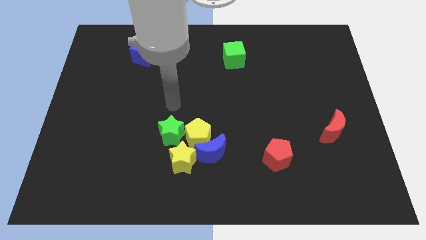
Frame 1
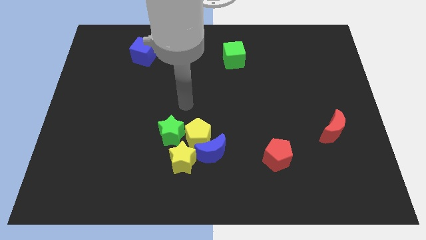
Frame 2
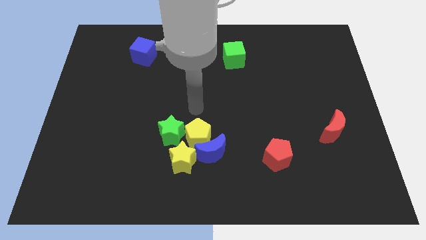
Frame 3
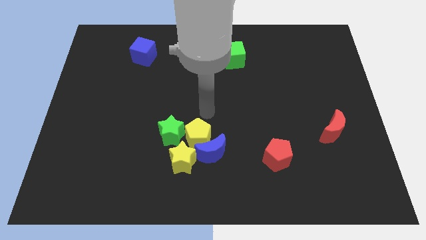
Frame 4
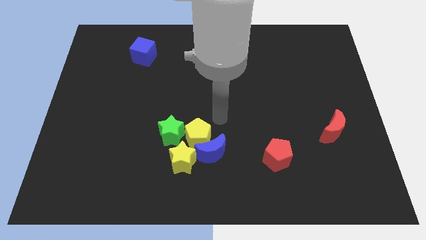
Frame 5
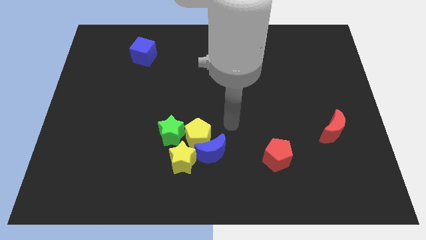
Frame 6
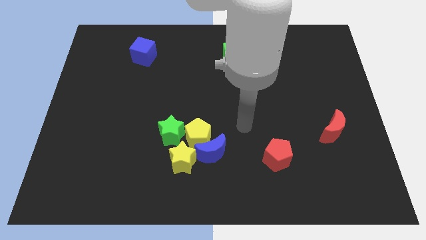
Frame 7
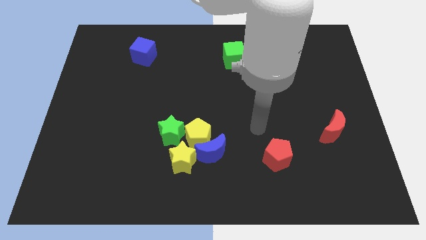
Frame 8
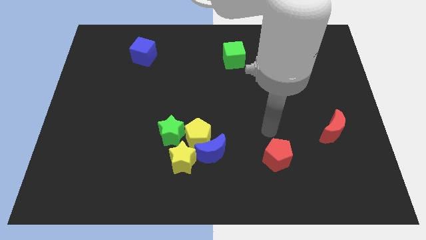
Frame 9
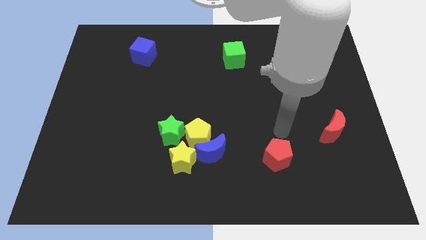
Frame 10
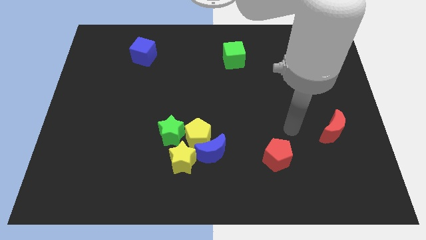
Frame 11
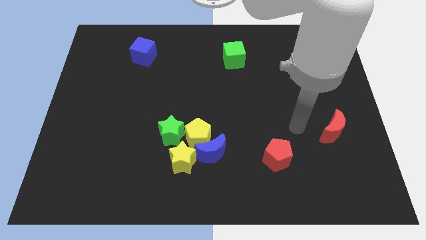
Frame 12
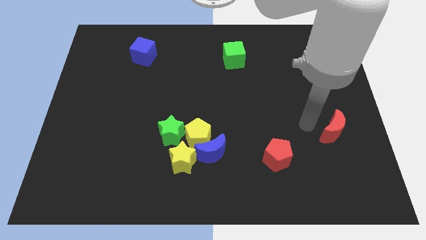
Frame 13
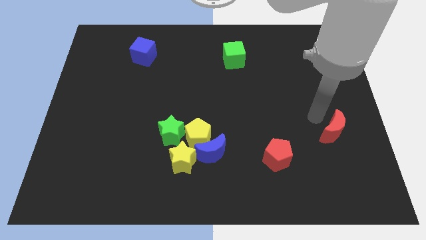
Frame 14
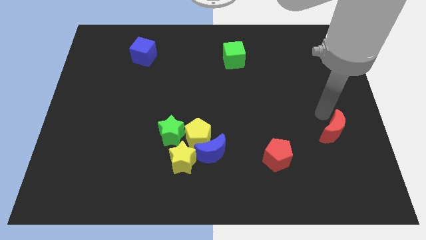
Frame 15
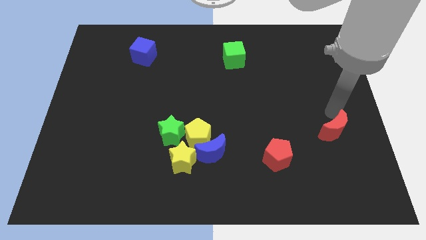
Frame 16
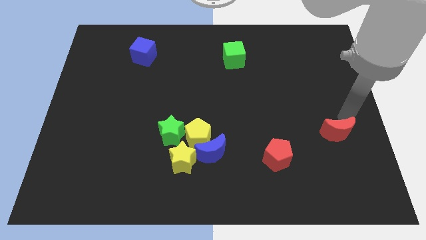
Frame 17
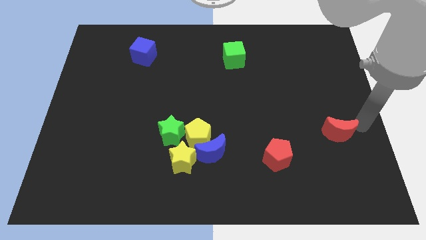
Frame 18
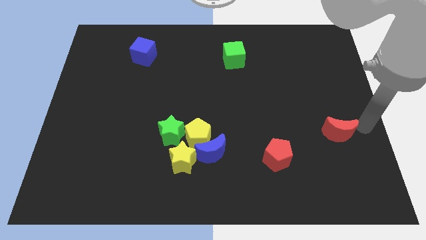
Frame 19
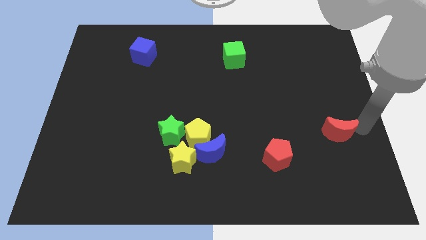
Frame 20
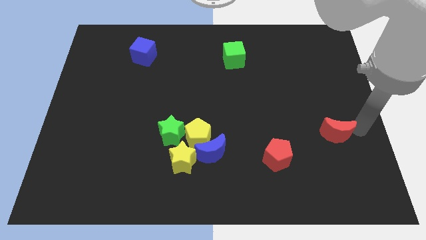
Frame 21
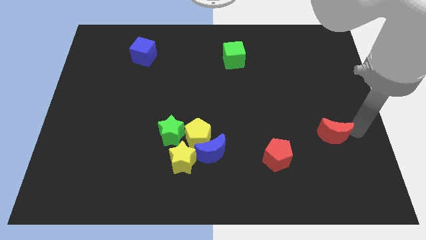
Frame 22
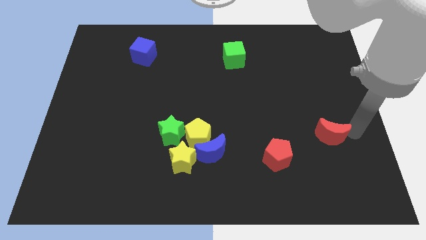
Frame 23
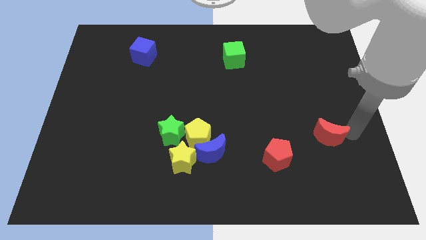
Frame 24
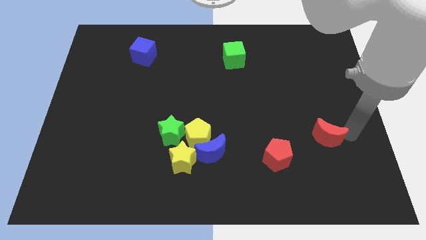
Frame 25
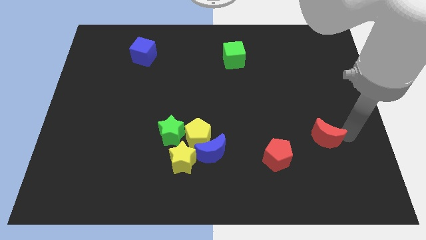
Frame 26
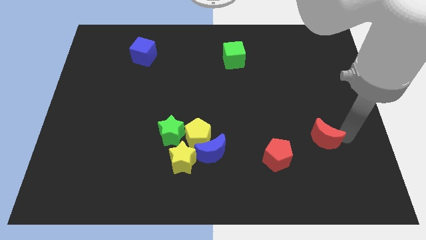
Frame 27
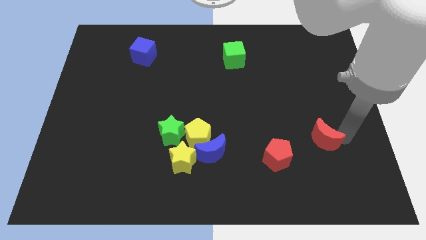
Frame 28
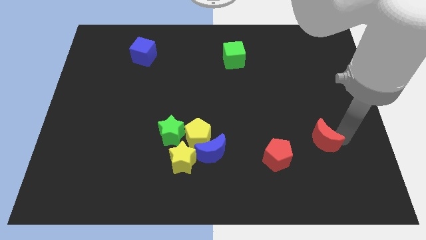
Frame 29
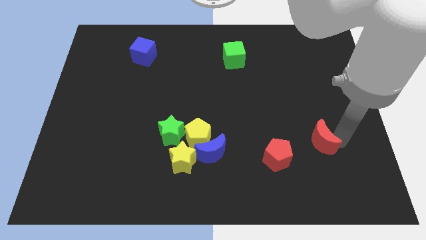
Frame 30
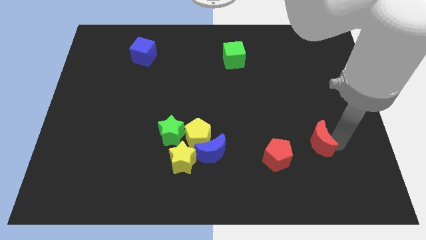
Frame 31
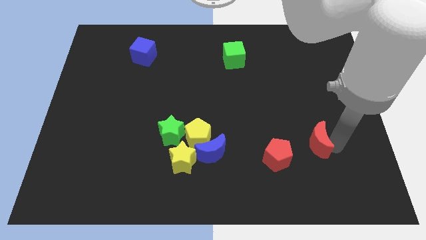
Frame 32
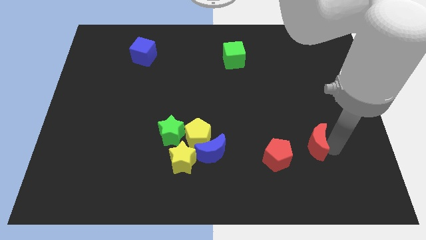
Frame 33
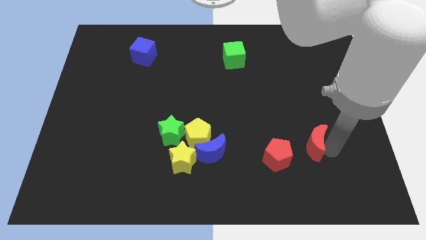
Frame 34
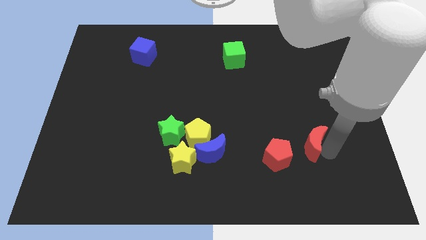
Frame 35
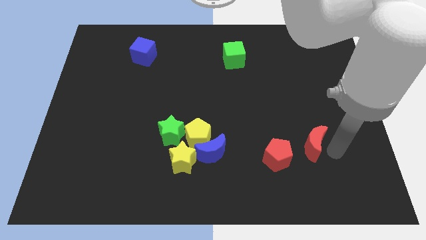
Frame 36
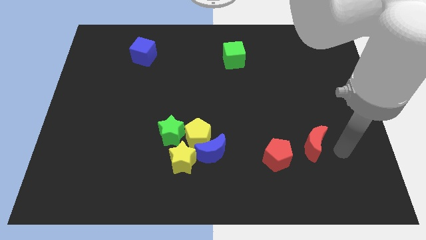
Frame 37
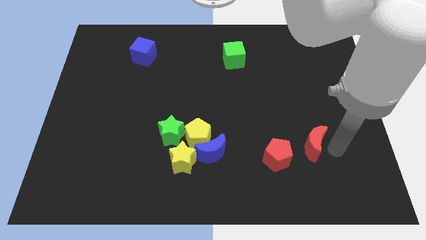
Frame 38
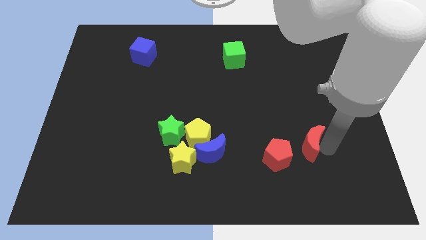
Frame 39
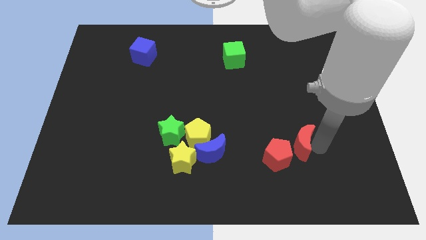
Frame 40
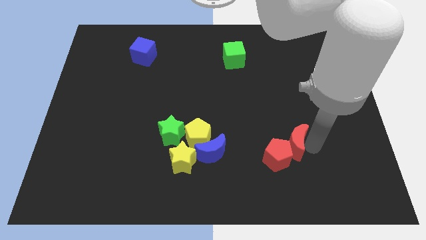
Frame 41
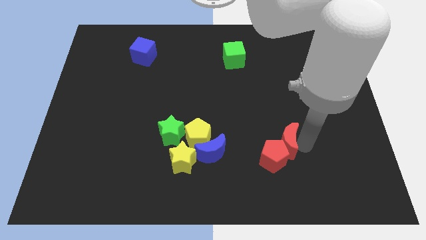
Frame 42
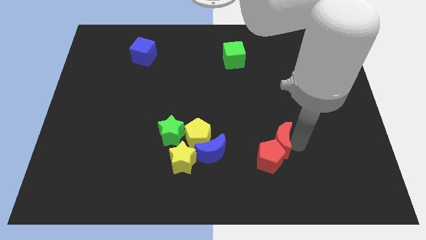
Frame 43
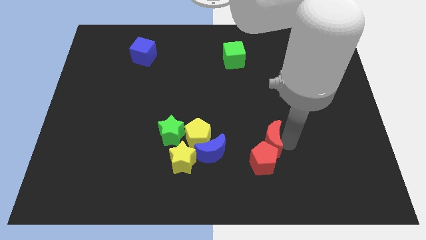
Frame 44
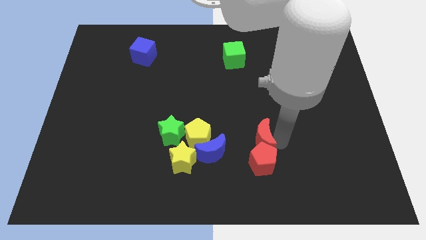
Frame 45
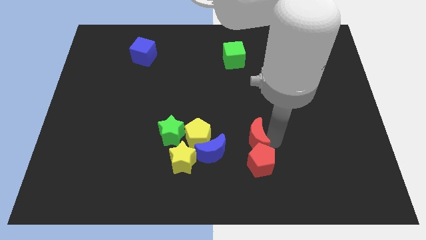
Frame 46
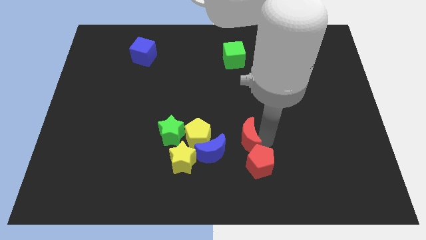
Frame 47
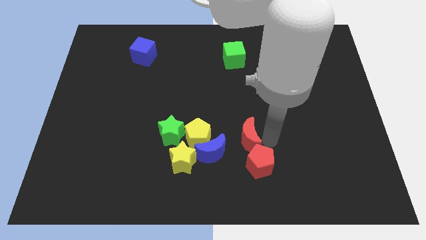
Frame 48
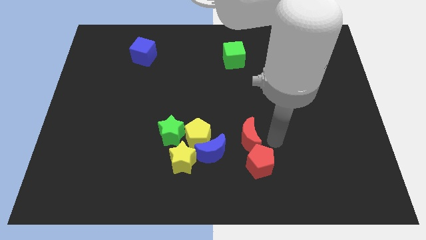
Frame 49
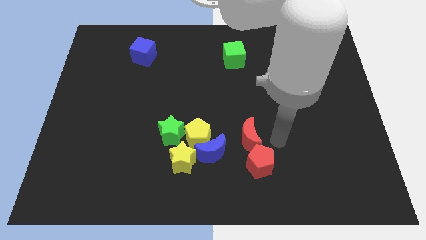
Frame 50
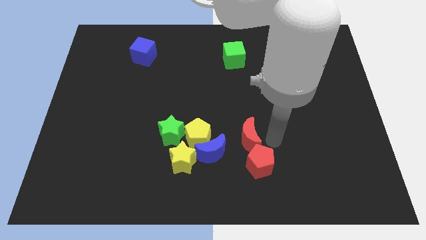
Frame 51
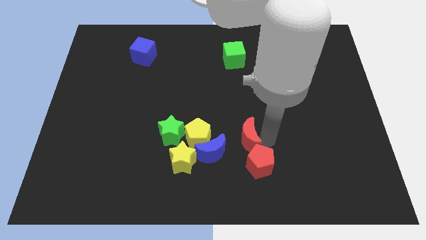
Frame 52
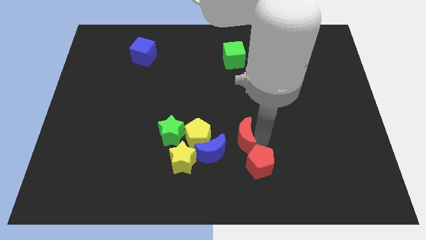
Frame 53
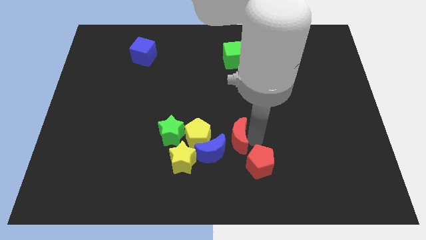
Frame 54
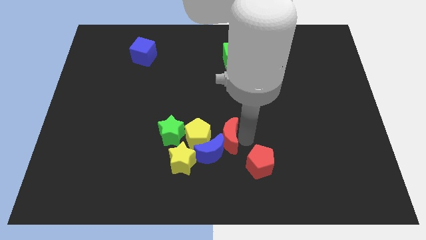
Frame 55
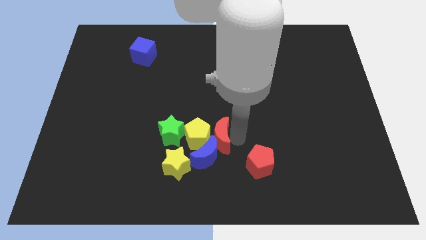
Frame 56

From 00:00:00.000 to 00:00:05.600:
push the red moon towards the yellow pentagon

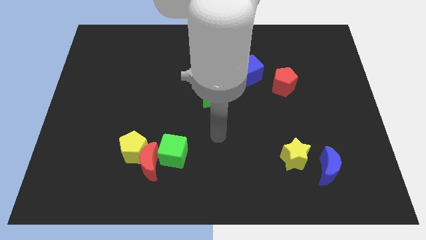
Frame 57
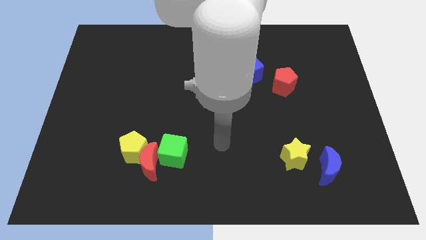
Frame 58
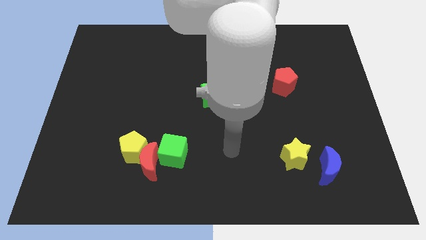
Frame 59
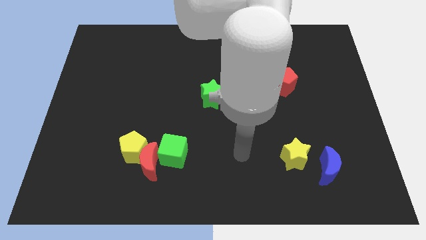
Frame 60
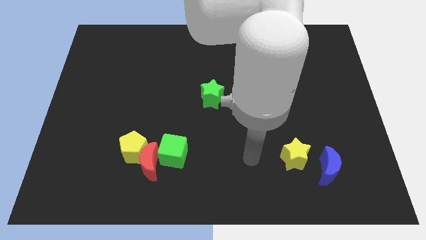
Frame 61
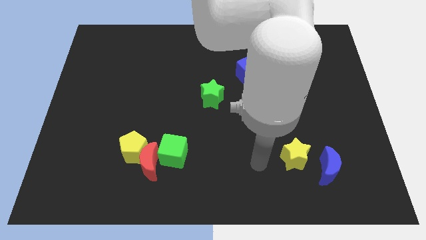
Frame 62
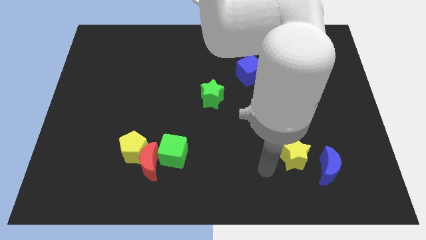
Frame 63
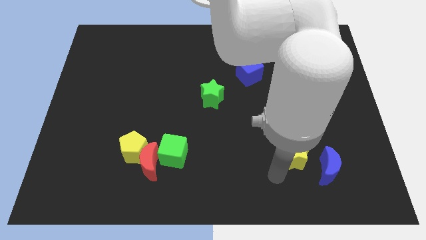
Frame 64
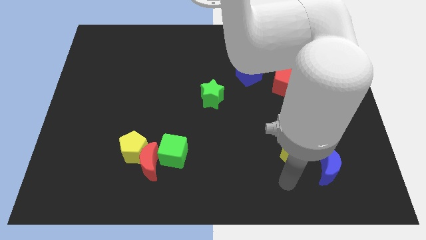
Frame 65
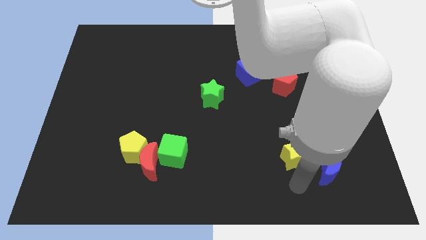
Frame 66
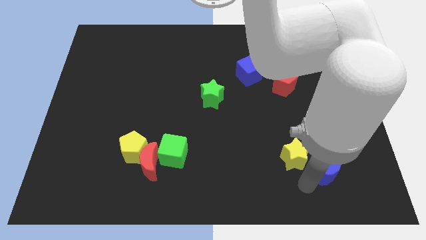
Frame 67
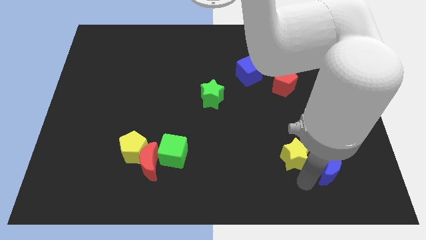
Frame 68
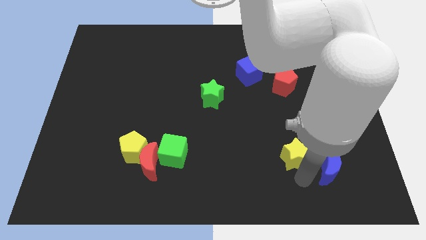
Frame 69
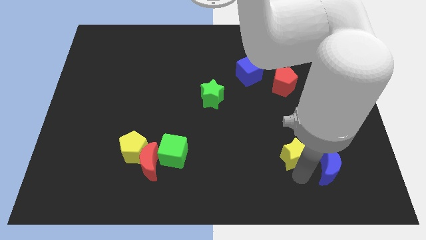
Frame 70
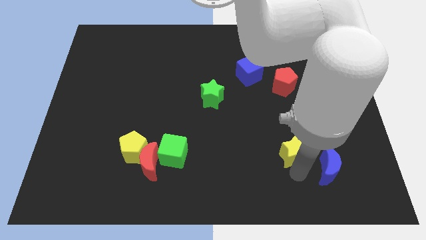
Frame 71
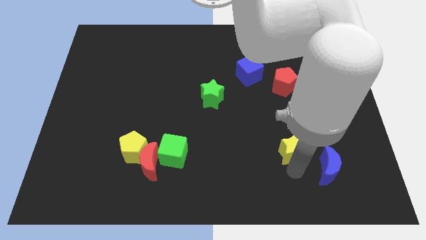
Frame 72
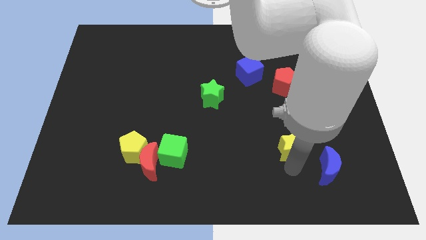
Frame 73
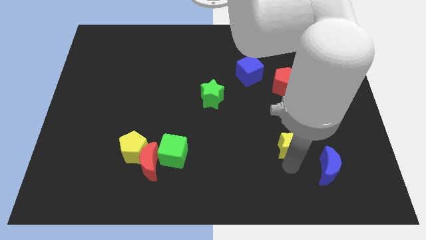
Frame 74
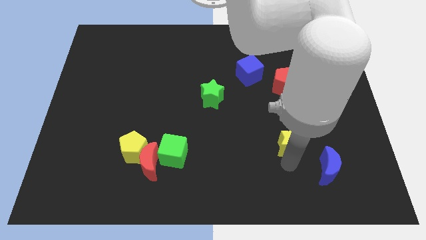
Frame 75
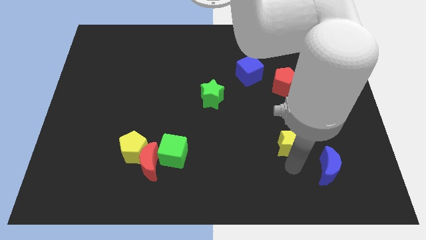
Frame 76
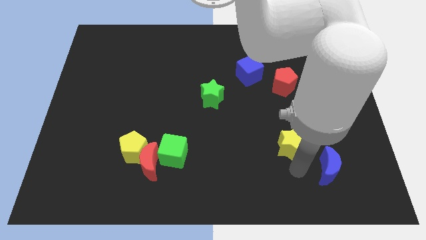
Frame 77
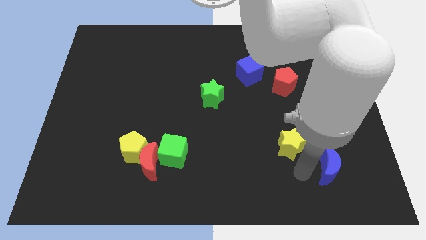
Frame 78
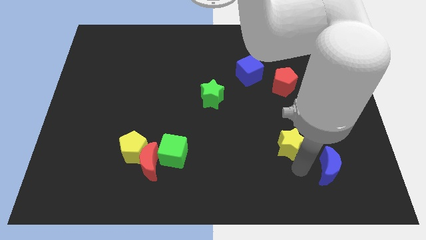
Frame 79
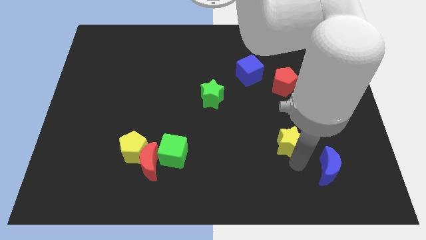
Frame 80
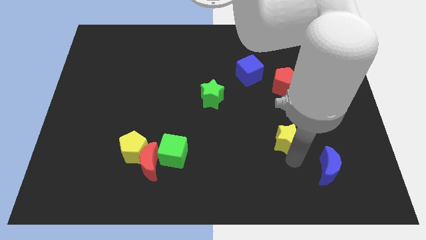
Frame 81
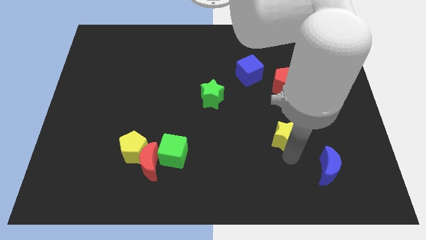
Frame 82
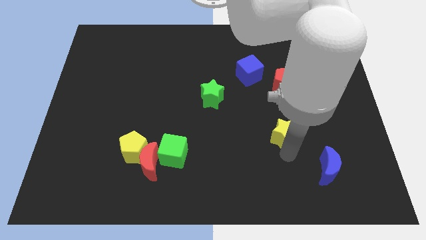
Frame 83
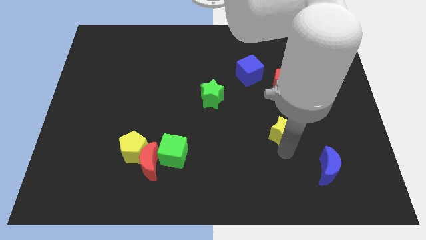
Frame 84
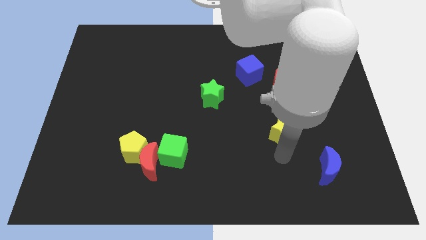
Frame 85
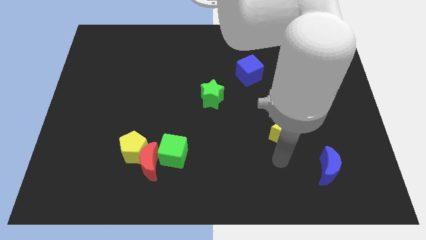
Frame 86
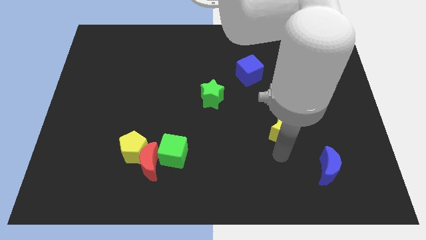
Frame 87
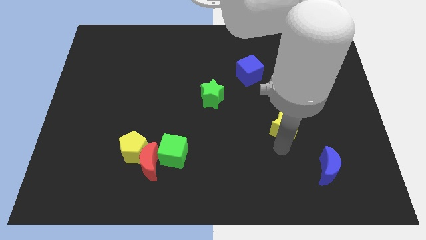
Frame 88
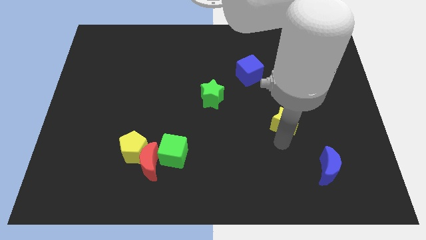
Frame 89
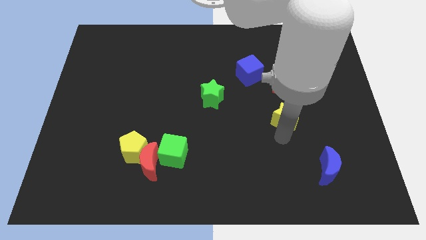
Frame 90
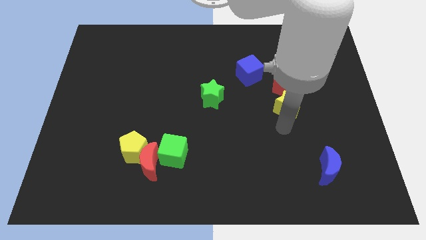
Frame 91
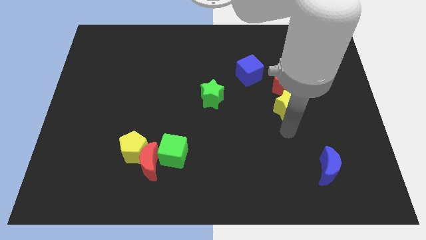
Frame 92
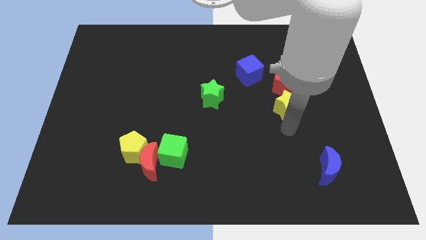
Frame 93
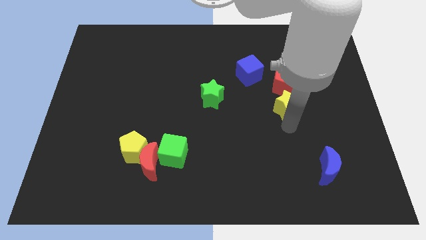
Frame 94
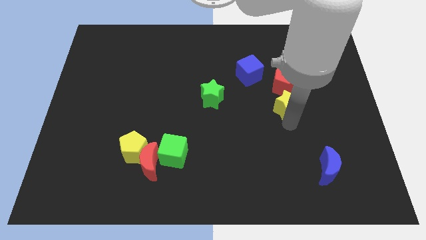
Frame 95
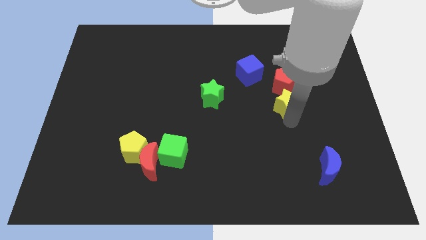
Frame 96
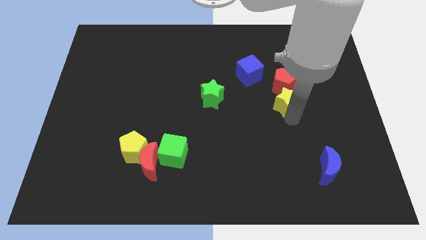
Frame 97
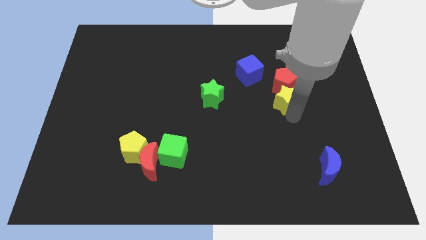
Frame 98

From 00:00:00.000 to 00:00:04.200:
push the yellow star to the red pentagon
